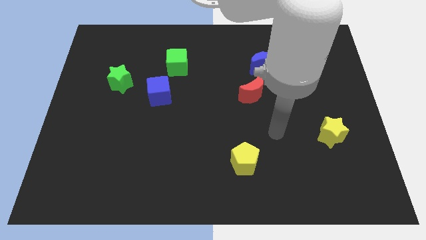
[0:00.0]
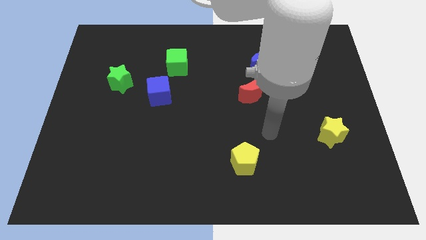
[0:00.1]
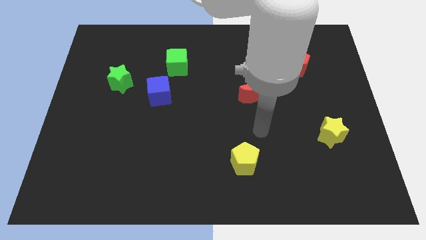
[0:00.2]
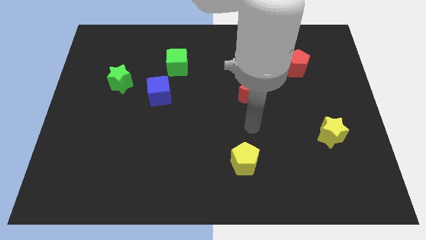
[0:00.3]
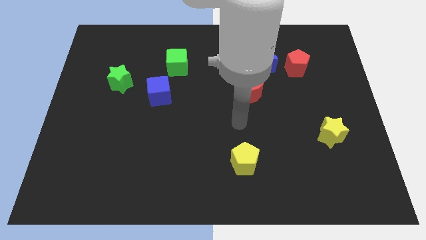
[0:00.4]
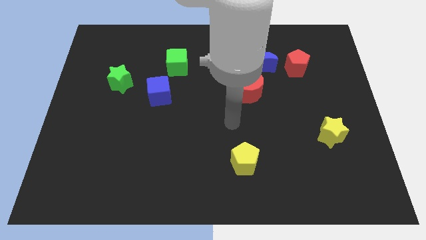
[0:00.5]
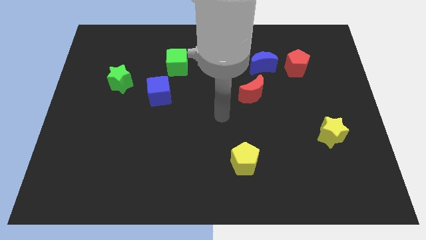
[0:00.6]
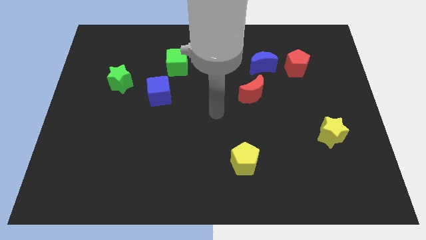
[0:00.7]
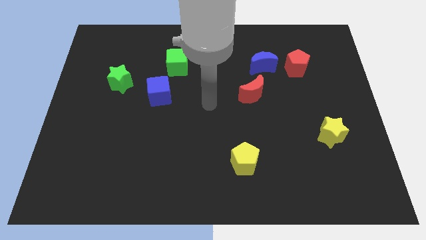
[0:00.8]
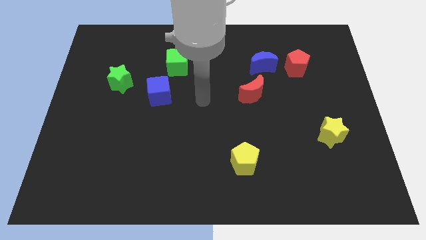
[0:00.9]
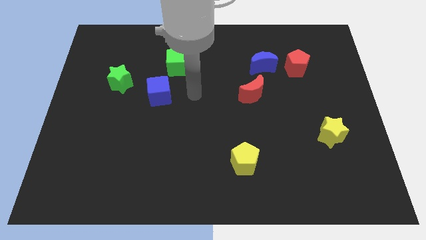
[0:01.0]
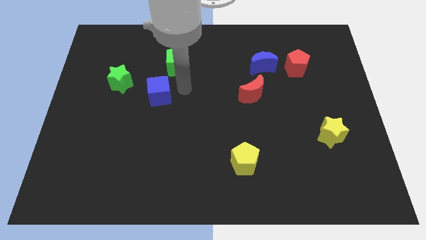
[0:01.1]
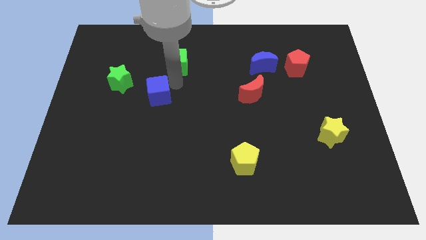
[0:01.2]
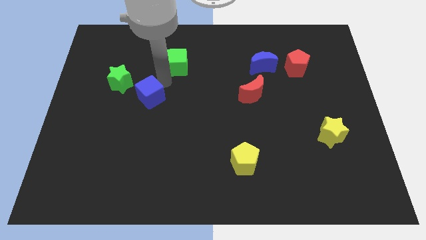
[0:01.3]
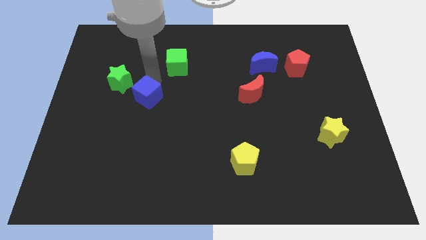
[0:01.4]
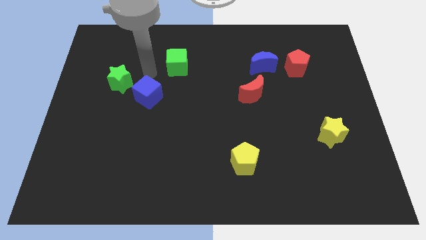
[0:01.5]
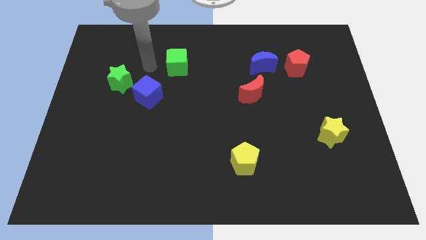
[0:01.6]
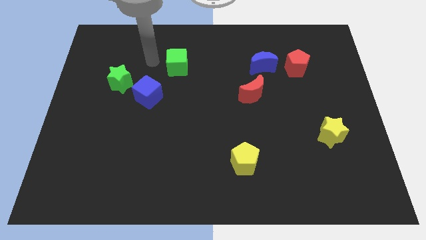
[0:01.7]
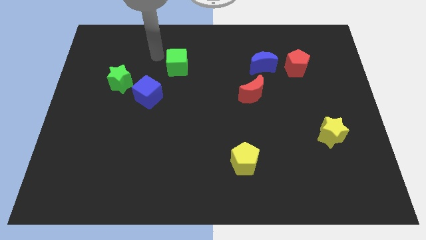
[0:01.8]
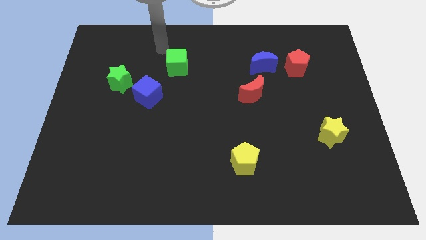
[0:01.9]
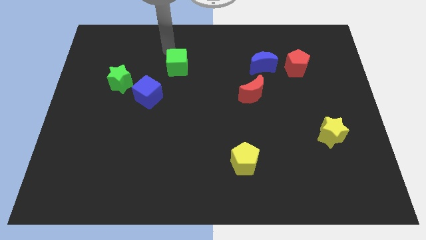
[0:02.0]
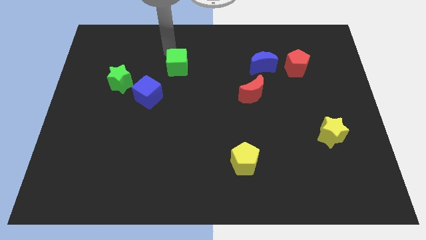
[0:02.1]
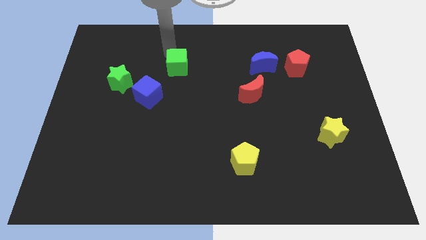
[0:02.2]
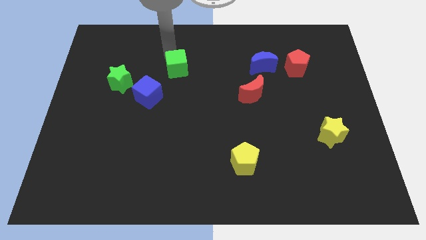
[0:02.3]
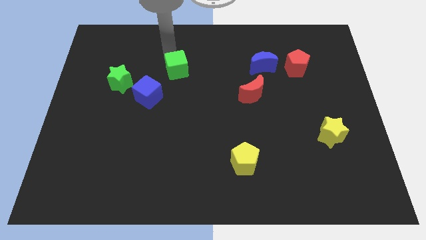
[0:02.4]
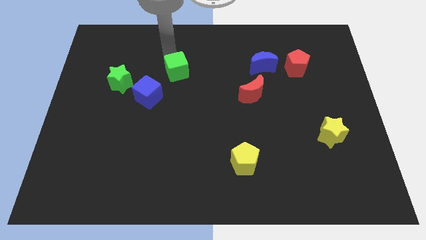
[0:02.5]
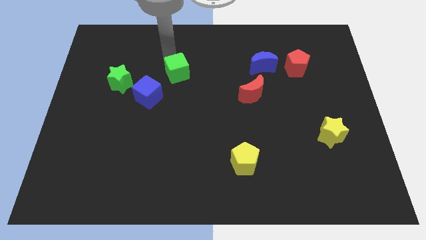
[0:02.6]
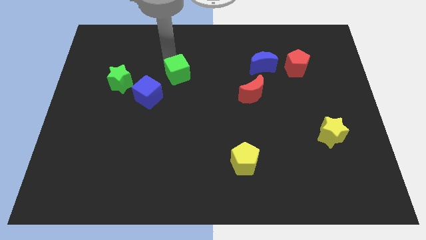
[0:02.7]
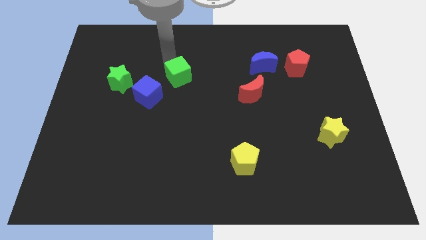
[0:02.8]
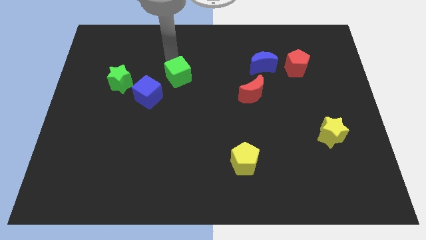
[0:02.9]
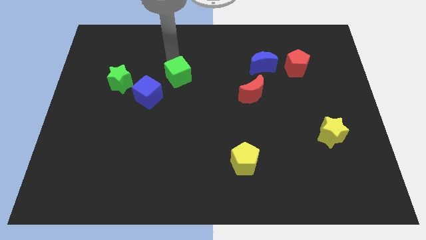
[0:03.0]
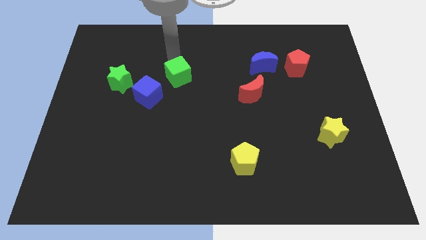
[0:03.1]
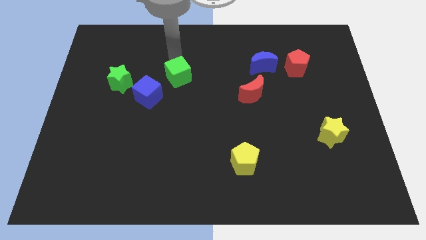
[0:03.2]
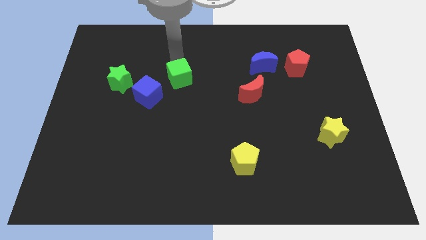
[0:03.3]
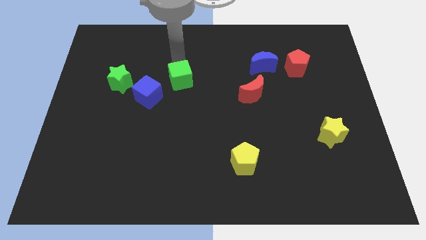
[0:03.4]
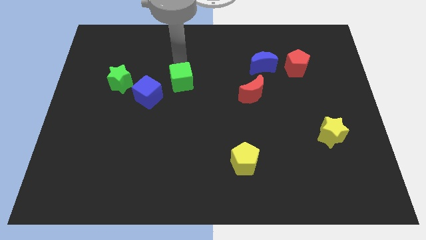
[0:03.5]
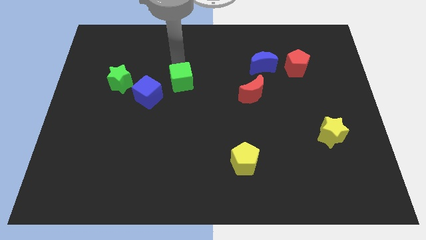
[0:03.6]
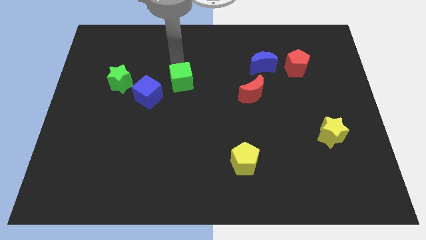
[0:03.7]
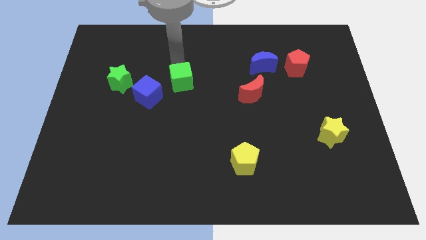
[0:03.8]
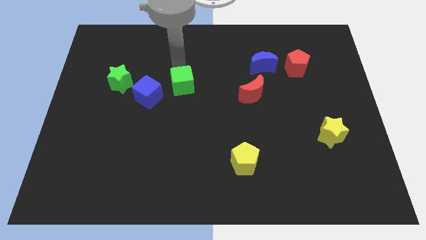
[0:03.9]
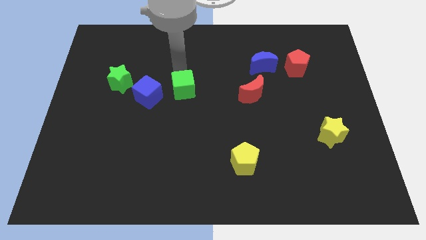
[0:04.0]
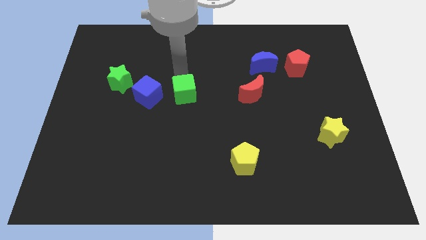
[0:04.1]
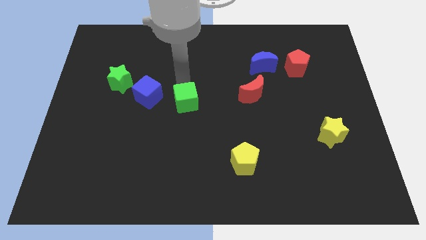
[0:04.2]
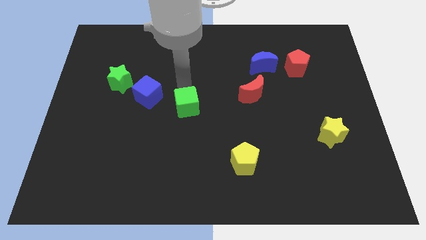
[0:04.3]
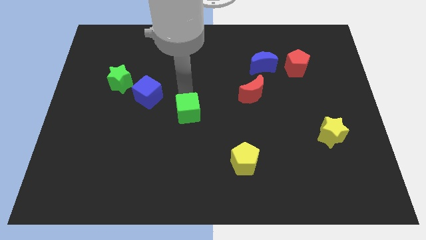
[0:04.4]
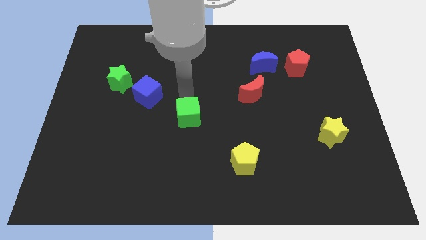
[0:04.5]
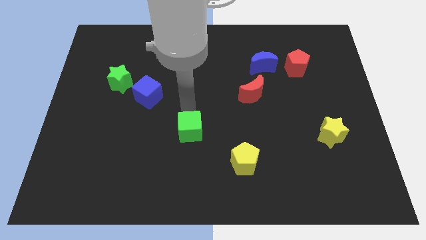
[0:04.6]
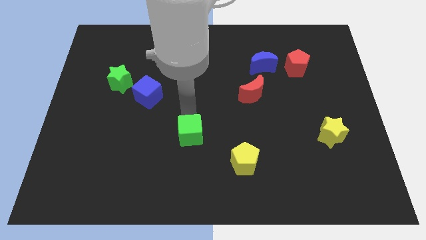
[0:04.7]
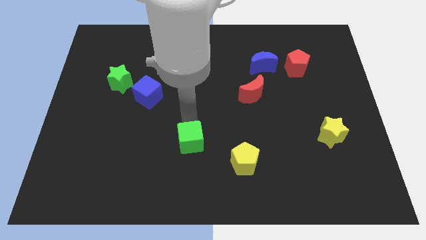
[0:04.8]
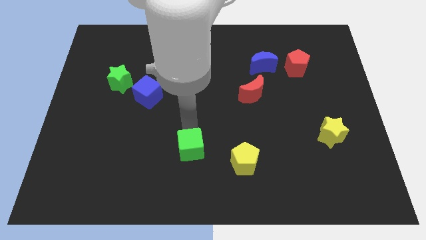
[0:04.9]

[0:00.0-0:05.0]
put the green cube to the left side of the yellow pentagon

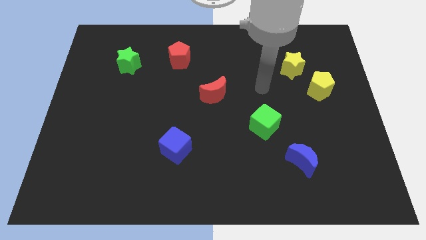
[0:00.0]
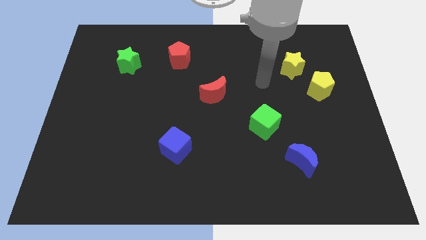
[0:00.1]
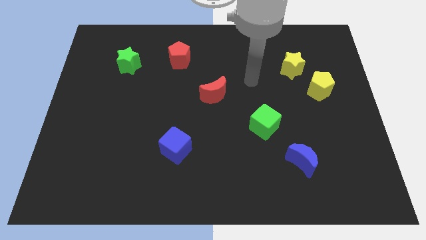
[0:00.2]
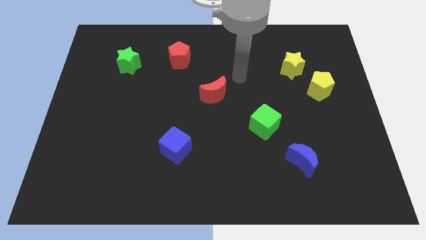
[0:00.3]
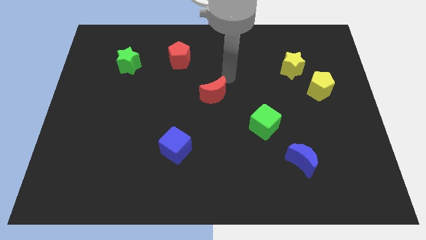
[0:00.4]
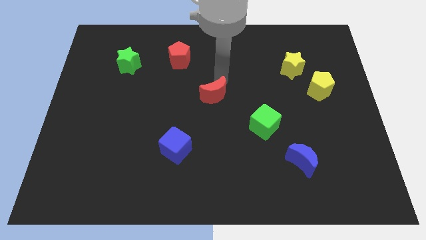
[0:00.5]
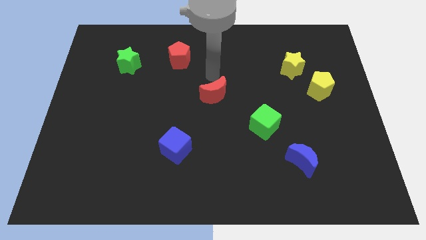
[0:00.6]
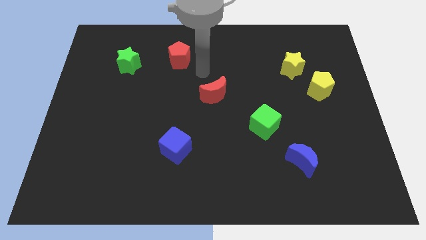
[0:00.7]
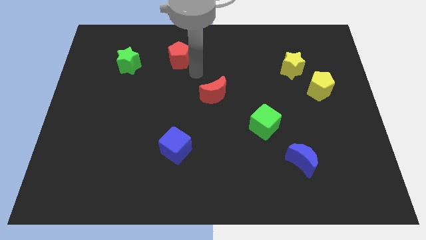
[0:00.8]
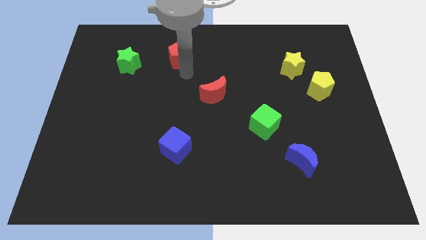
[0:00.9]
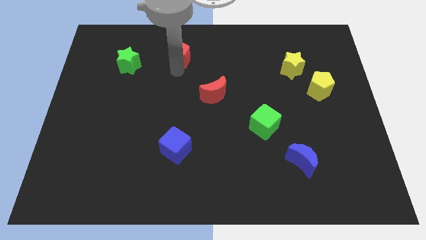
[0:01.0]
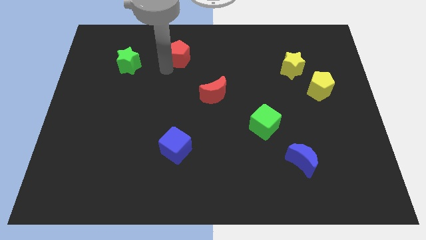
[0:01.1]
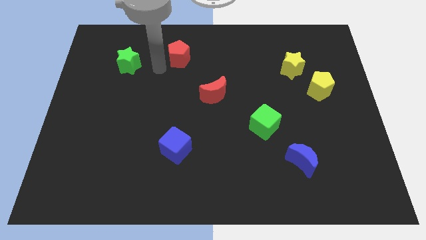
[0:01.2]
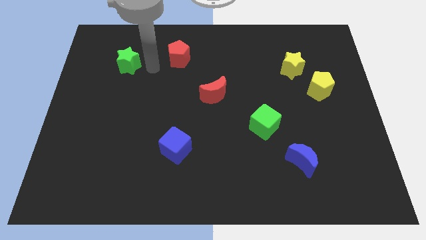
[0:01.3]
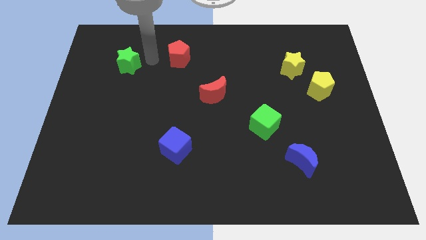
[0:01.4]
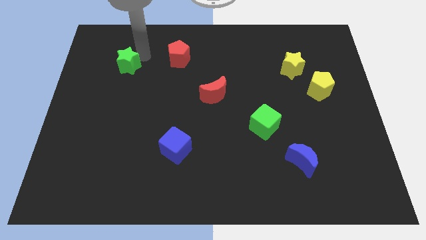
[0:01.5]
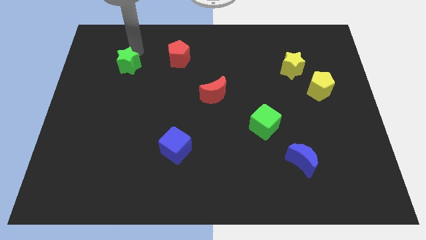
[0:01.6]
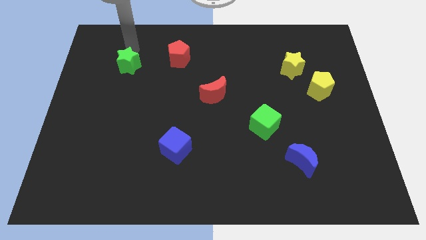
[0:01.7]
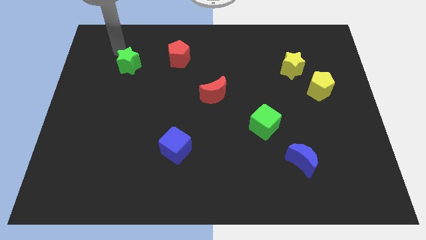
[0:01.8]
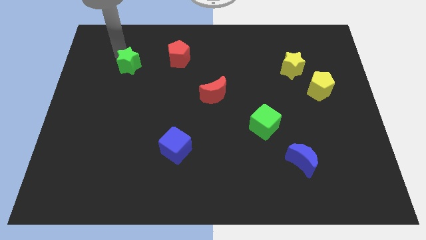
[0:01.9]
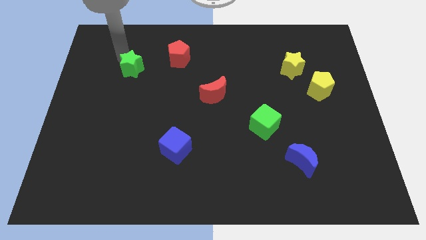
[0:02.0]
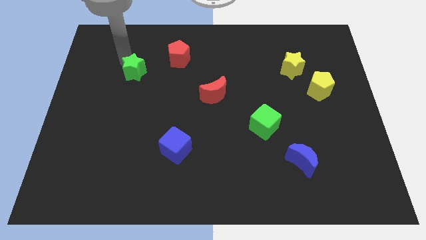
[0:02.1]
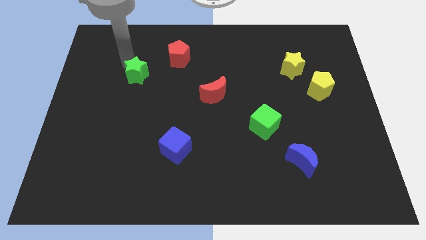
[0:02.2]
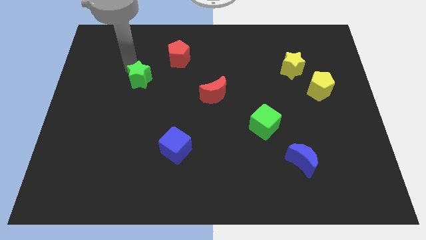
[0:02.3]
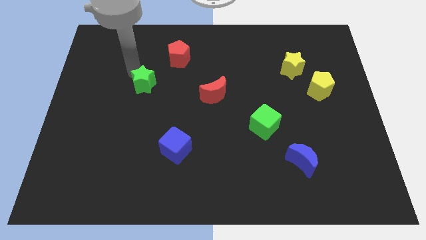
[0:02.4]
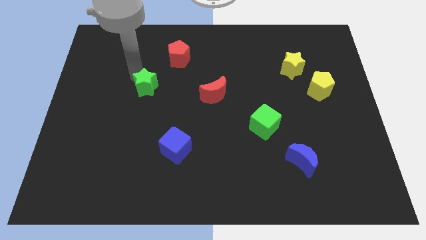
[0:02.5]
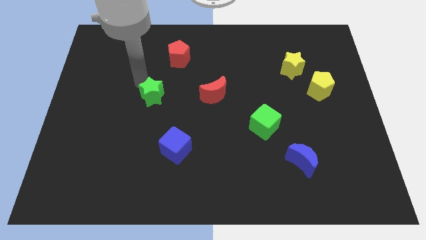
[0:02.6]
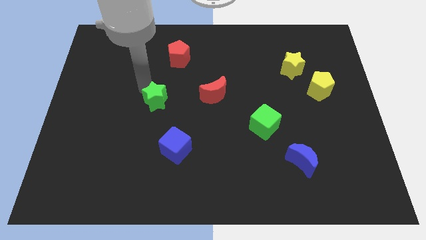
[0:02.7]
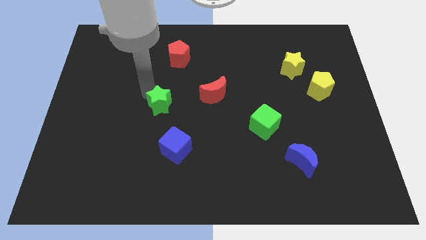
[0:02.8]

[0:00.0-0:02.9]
slide the green star to the top of the blue cube

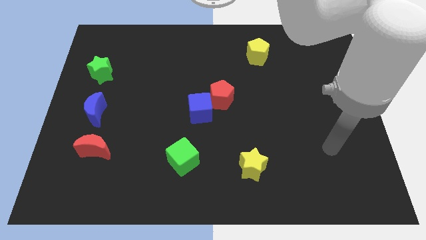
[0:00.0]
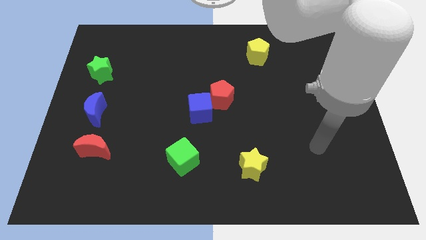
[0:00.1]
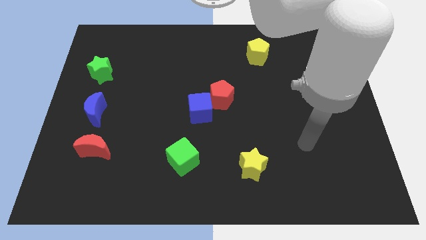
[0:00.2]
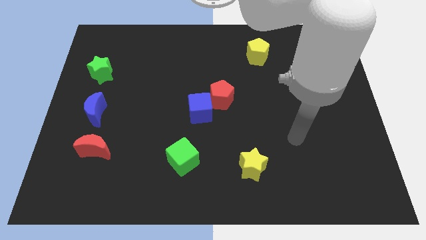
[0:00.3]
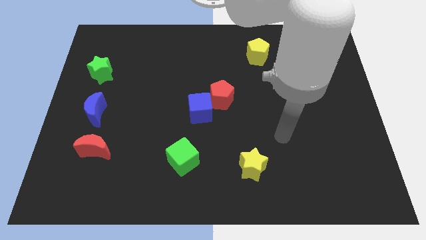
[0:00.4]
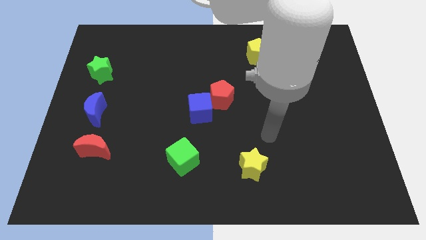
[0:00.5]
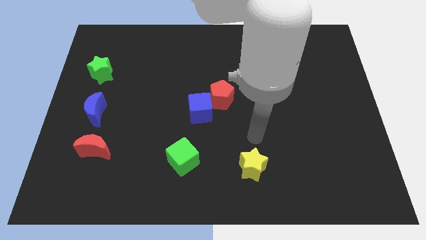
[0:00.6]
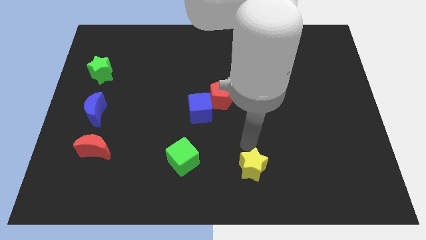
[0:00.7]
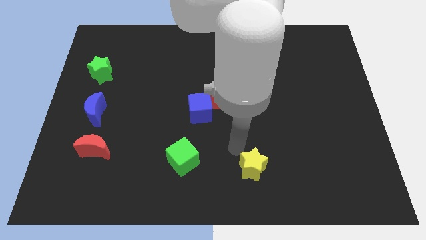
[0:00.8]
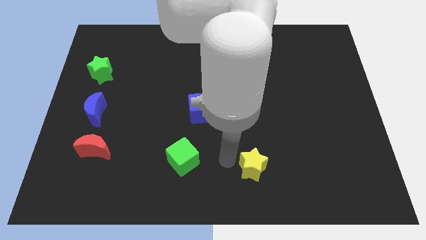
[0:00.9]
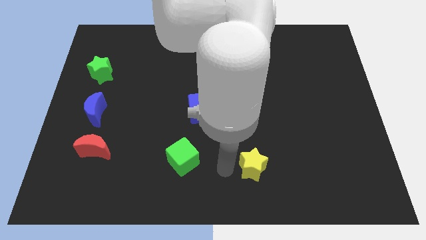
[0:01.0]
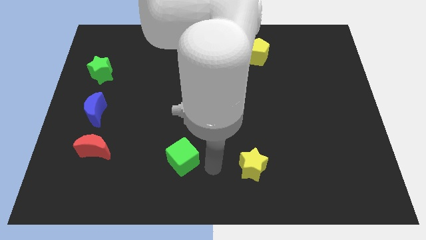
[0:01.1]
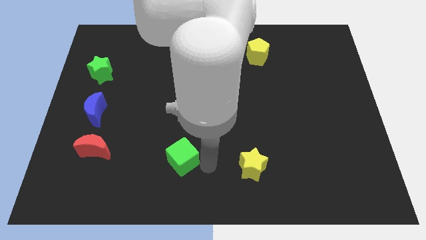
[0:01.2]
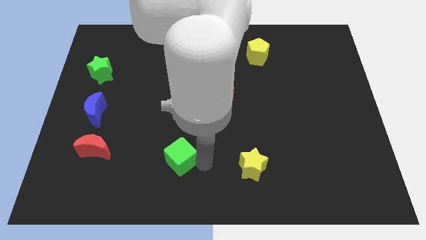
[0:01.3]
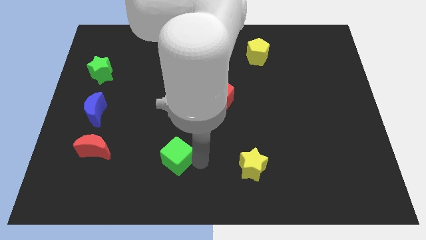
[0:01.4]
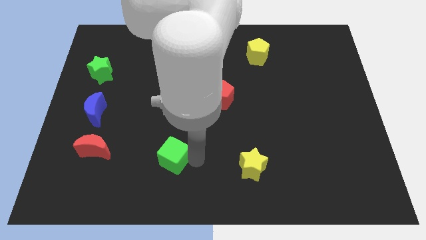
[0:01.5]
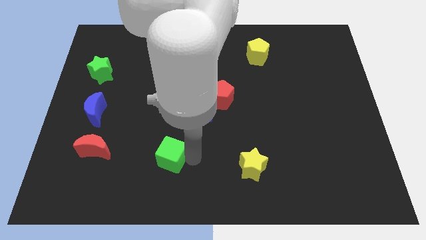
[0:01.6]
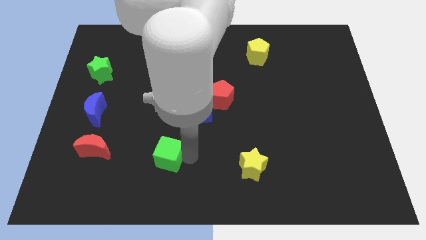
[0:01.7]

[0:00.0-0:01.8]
move the green cube to the right of the red moon
